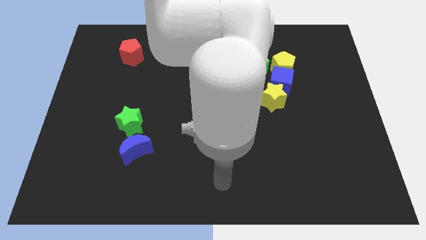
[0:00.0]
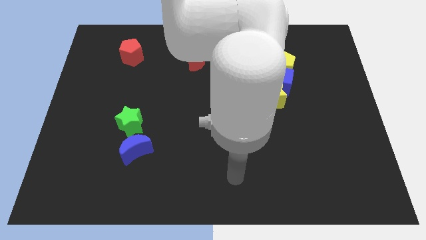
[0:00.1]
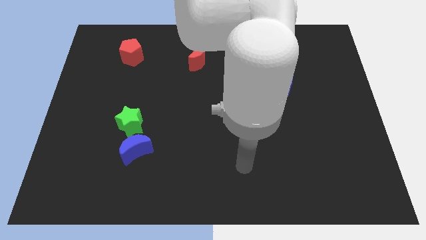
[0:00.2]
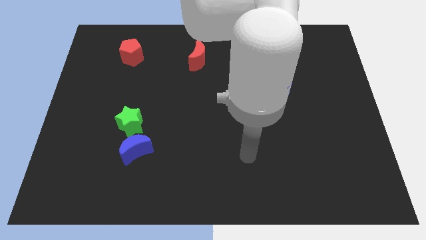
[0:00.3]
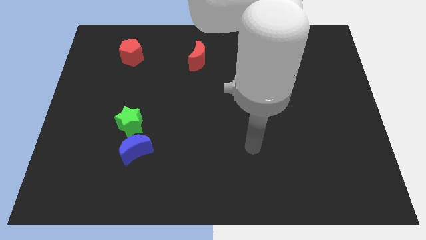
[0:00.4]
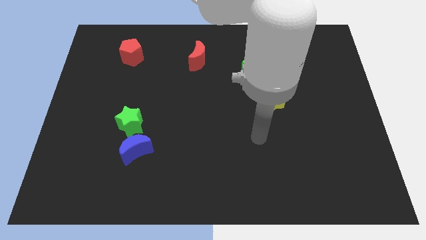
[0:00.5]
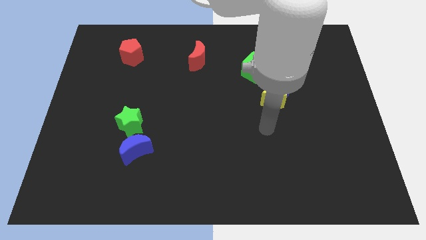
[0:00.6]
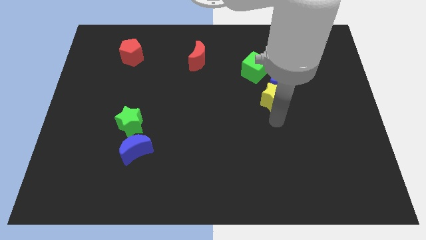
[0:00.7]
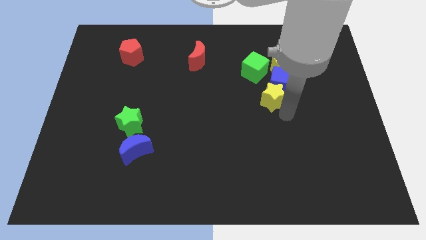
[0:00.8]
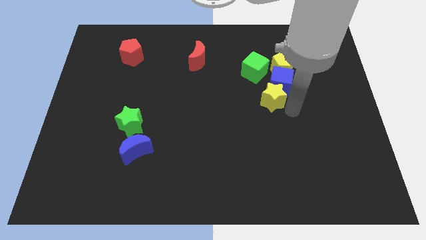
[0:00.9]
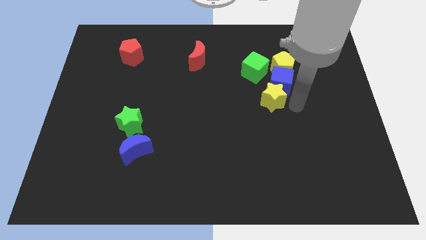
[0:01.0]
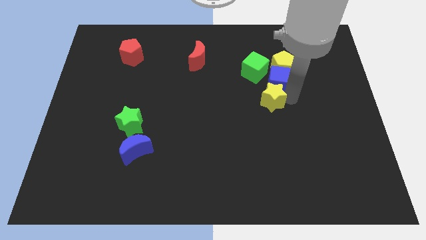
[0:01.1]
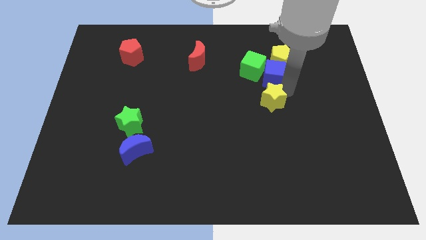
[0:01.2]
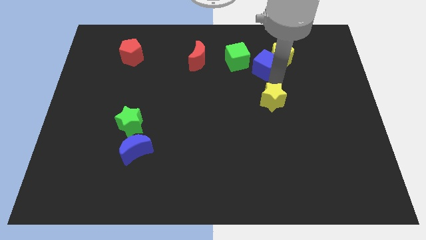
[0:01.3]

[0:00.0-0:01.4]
pull the yellow star apart from the blue cube

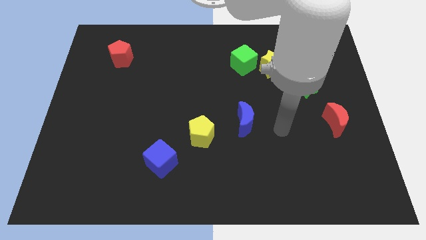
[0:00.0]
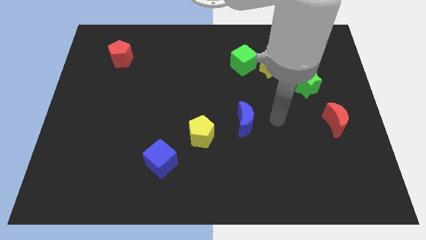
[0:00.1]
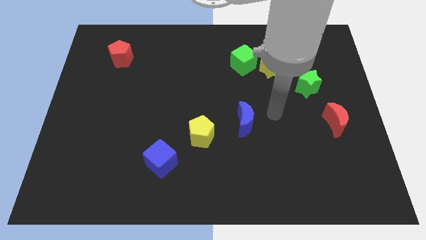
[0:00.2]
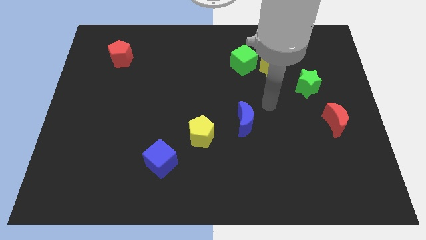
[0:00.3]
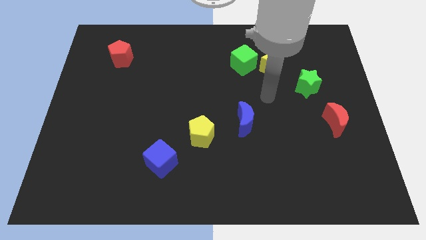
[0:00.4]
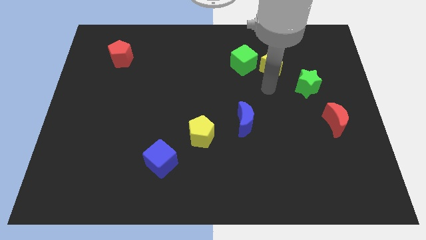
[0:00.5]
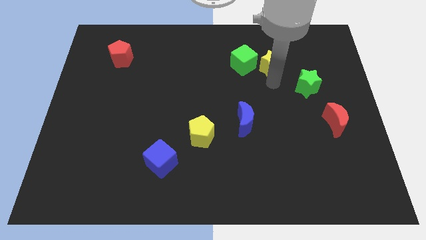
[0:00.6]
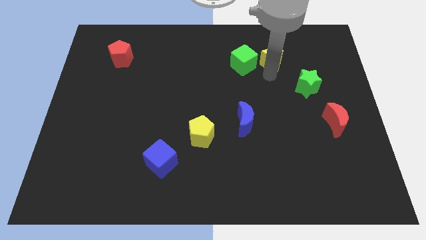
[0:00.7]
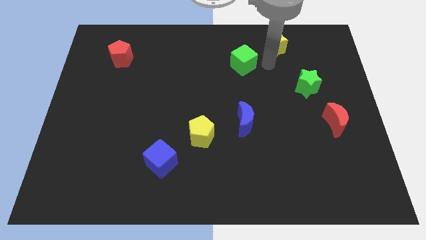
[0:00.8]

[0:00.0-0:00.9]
move the green cube away from the yellow star

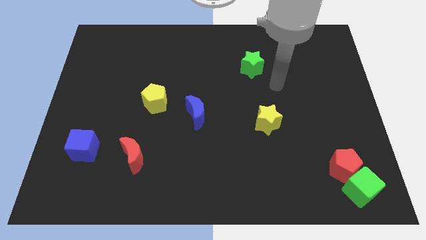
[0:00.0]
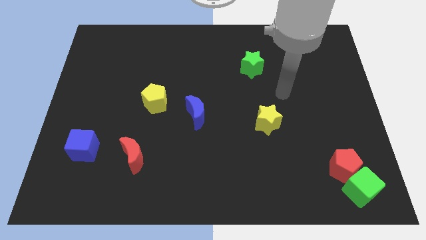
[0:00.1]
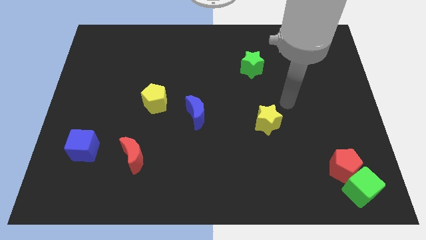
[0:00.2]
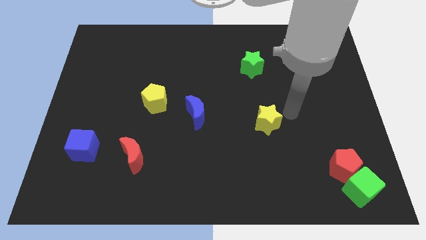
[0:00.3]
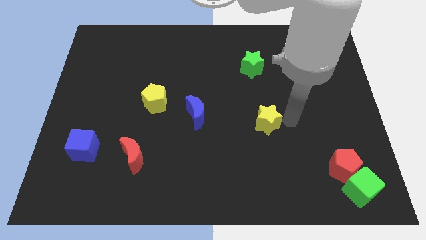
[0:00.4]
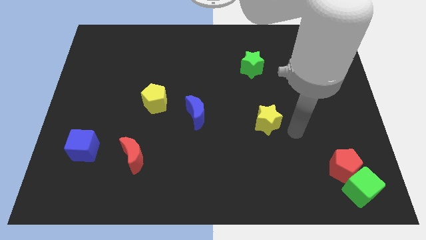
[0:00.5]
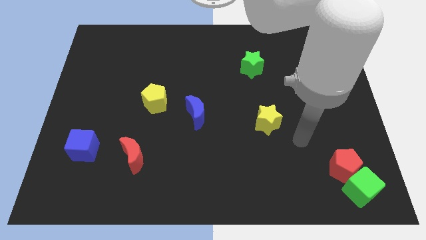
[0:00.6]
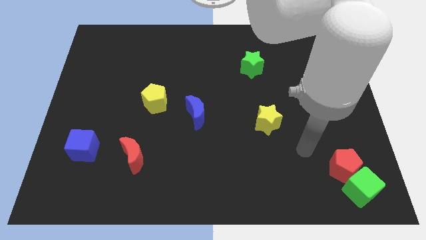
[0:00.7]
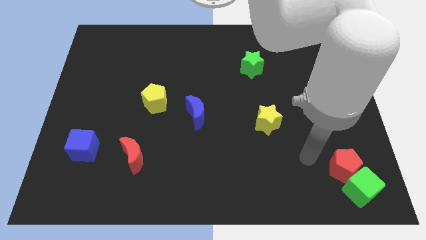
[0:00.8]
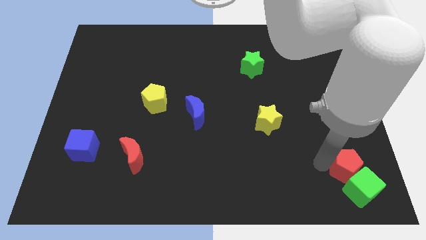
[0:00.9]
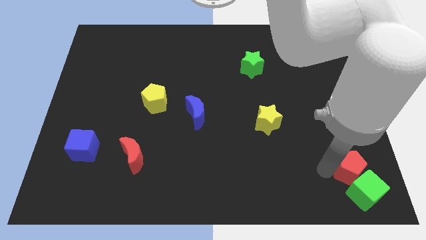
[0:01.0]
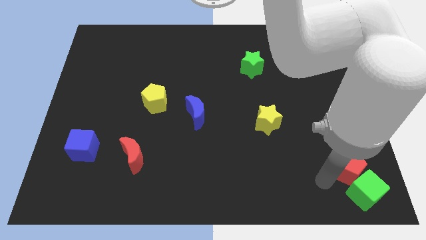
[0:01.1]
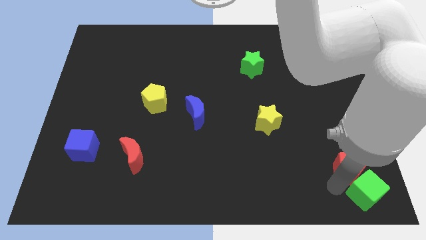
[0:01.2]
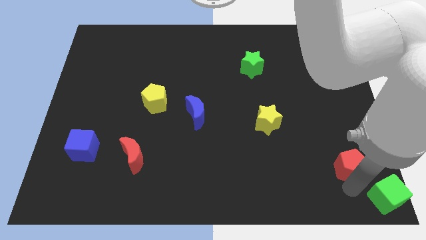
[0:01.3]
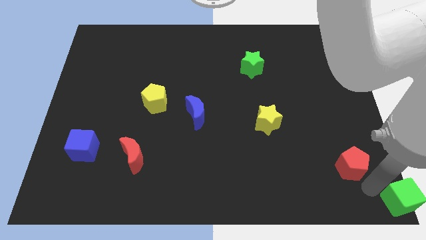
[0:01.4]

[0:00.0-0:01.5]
move the red pentagon away from the green cube

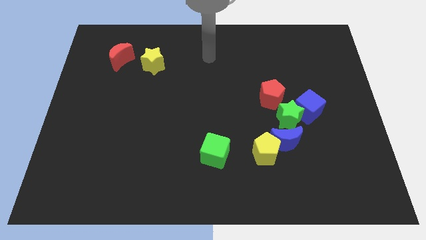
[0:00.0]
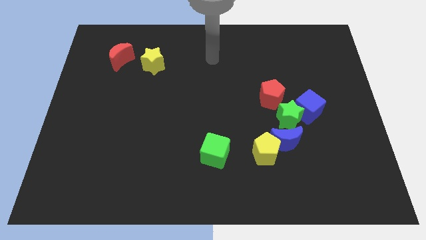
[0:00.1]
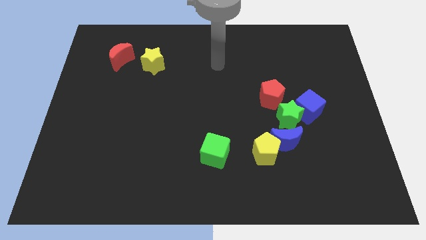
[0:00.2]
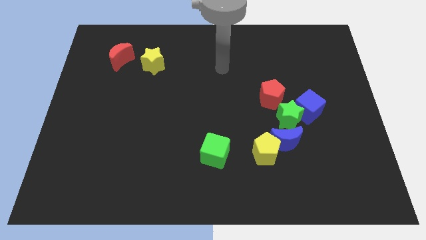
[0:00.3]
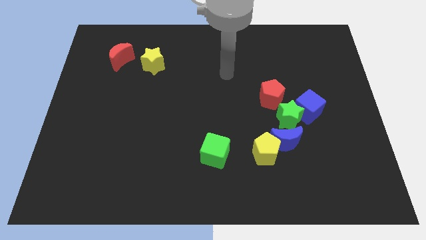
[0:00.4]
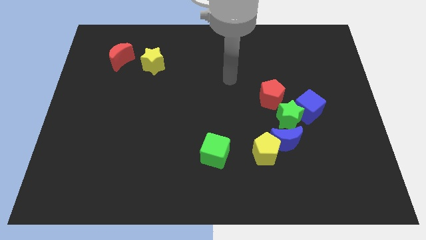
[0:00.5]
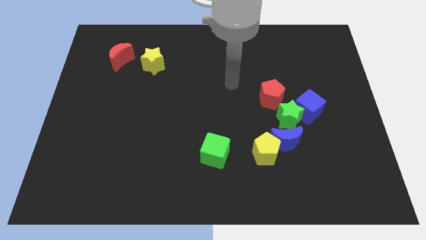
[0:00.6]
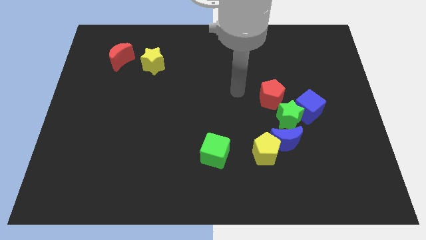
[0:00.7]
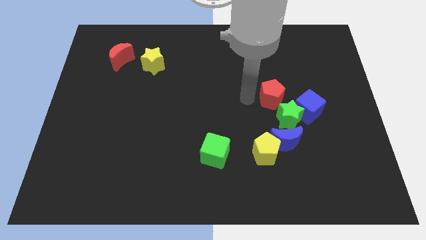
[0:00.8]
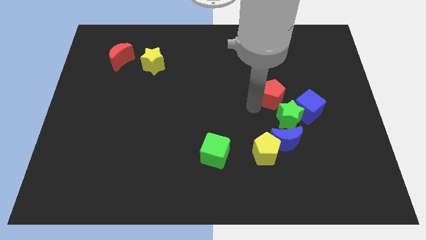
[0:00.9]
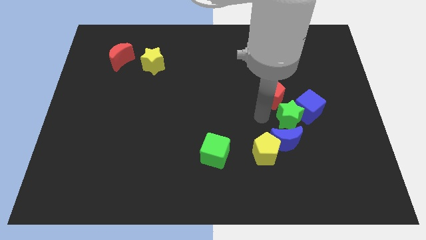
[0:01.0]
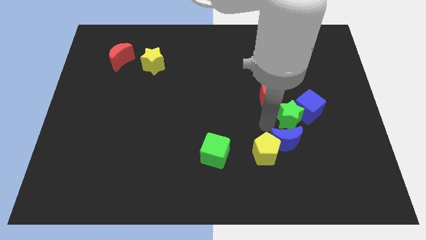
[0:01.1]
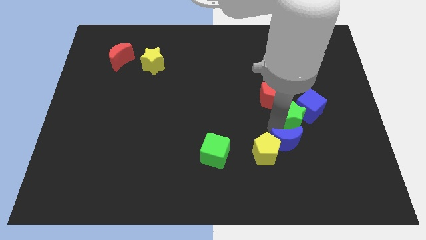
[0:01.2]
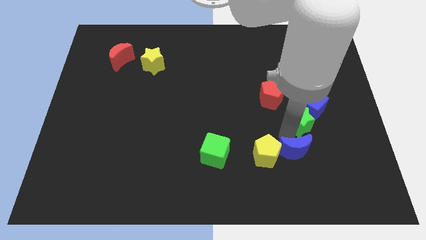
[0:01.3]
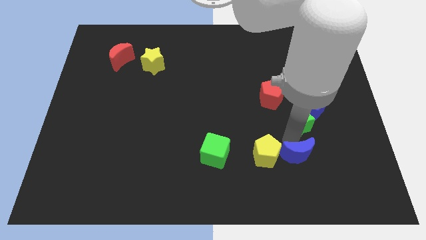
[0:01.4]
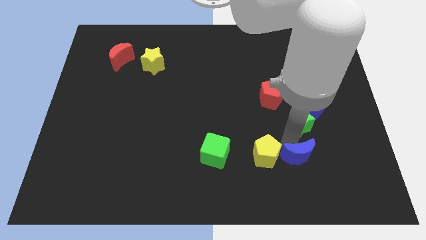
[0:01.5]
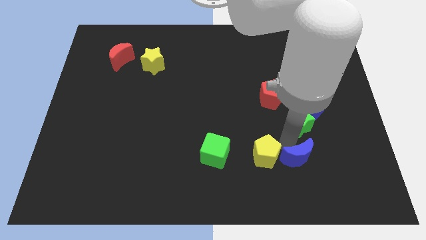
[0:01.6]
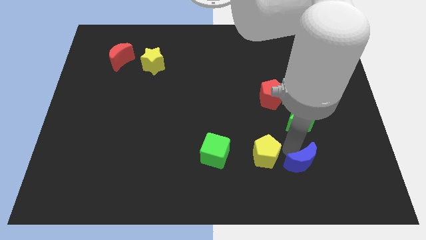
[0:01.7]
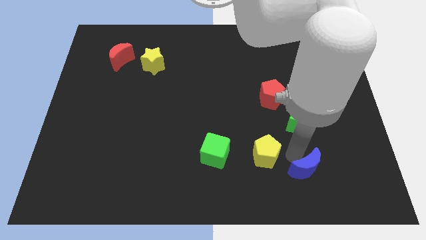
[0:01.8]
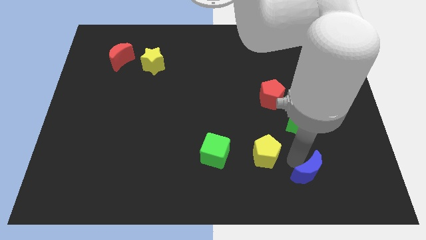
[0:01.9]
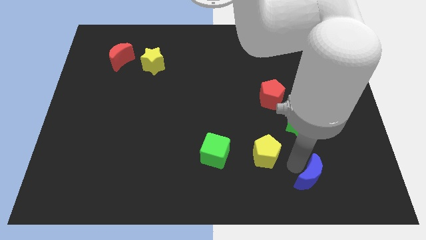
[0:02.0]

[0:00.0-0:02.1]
move the yellow pentagon away from the blue moon

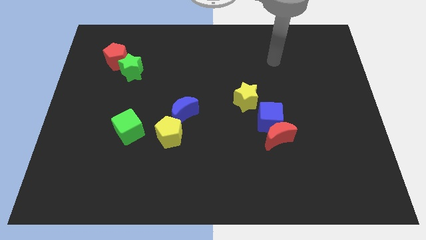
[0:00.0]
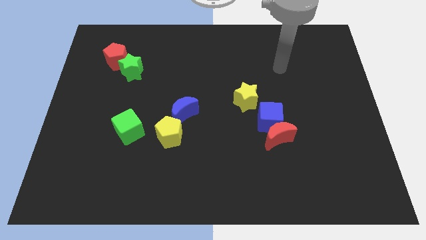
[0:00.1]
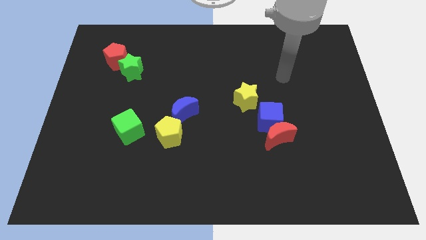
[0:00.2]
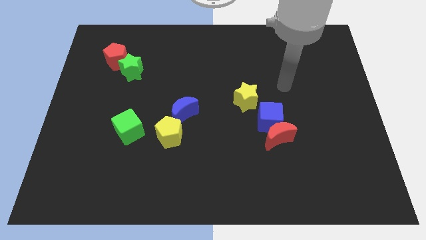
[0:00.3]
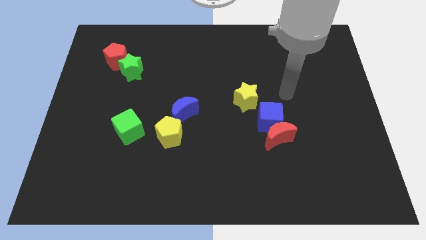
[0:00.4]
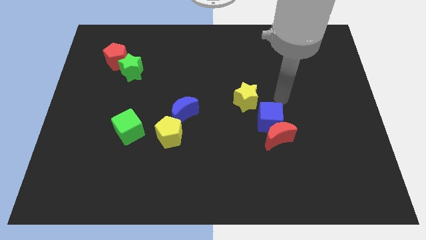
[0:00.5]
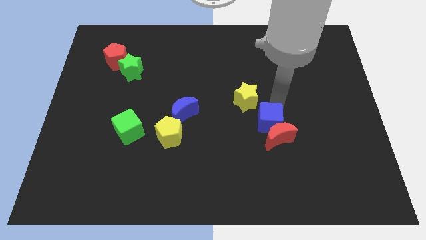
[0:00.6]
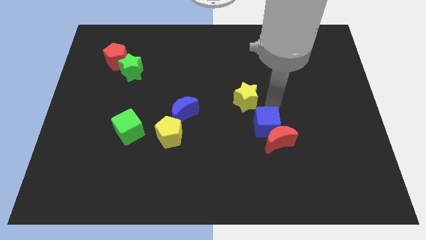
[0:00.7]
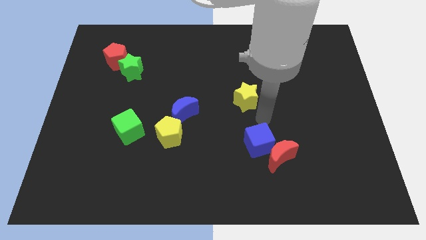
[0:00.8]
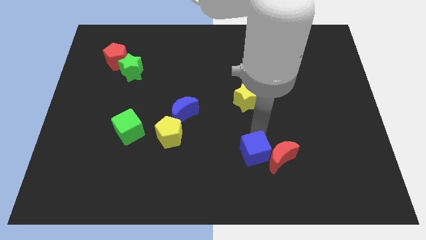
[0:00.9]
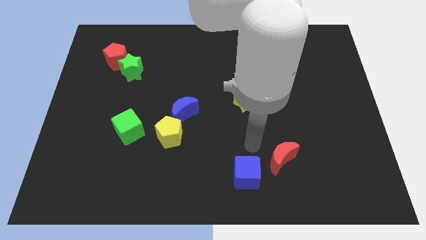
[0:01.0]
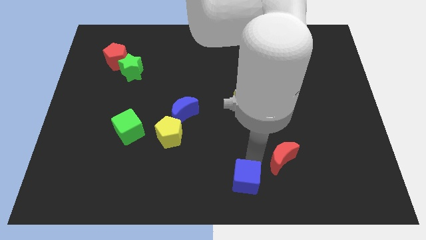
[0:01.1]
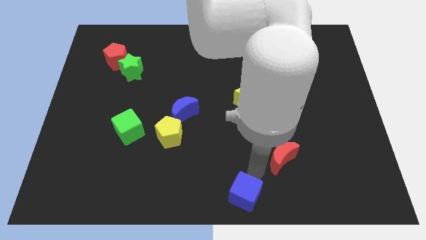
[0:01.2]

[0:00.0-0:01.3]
separate the red moon from the blue cube

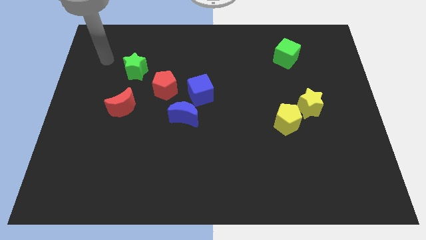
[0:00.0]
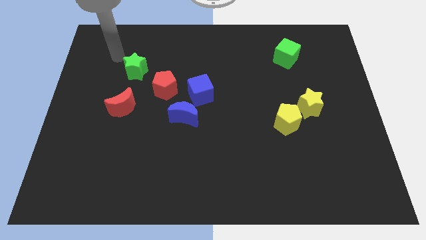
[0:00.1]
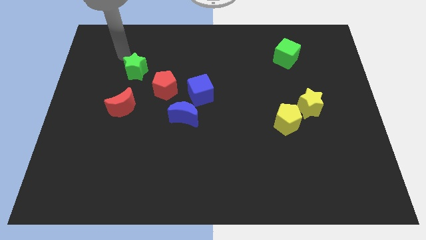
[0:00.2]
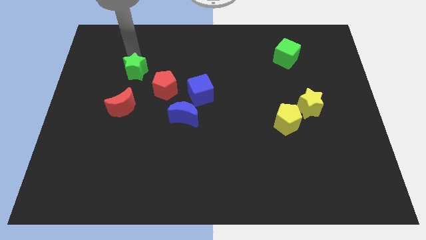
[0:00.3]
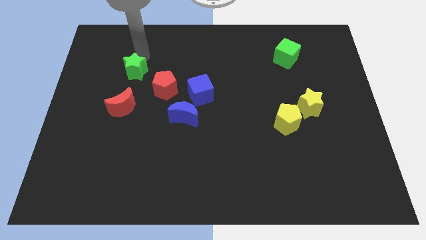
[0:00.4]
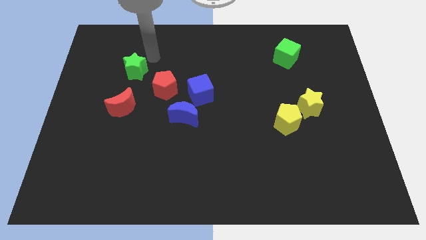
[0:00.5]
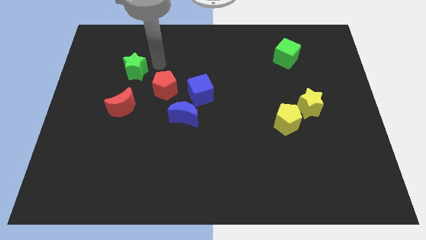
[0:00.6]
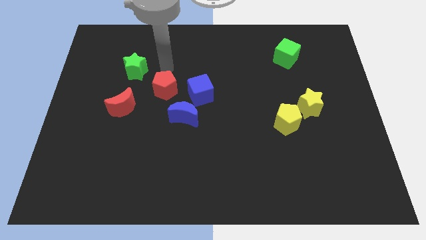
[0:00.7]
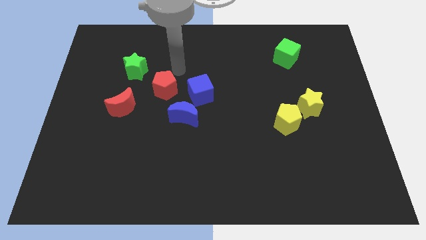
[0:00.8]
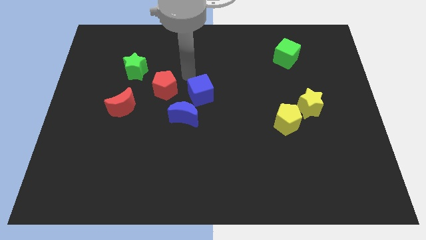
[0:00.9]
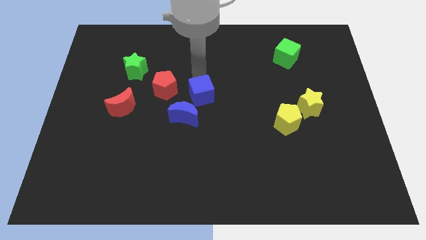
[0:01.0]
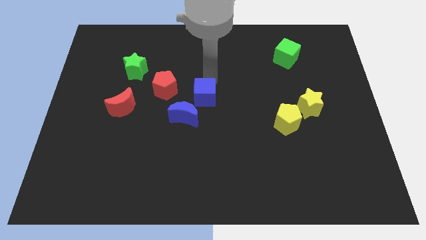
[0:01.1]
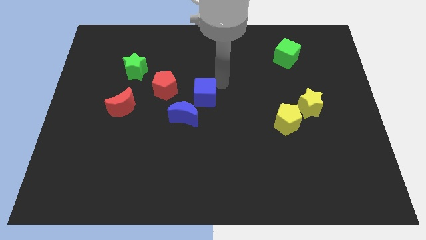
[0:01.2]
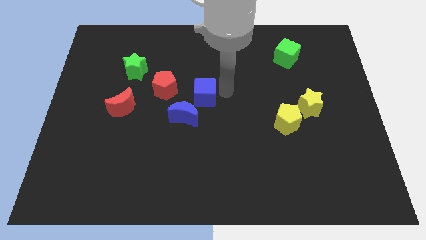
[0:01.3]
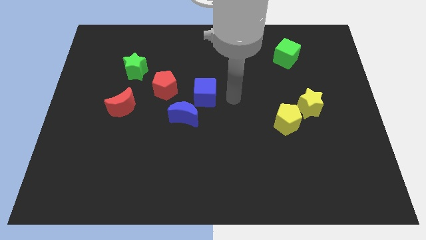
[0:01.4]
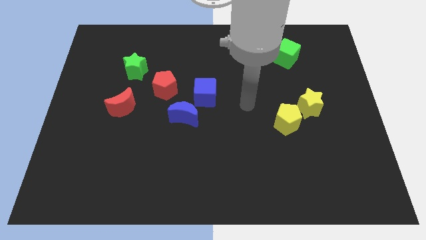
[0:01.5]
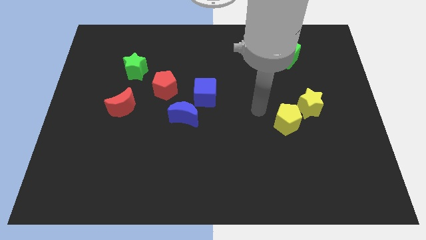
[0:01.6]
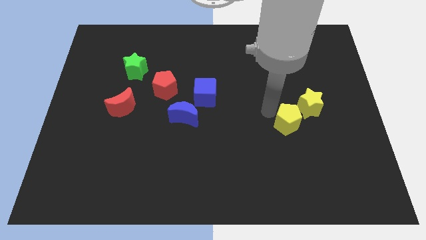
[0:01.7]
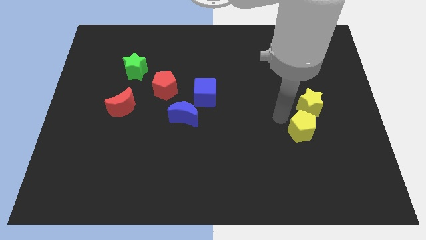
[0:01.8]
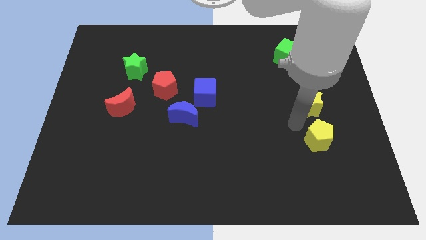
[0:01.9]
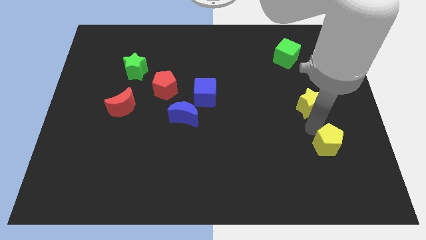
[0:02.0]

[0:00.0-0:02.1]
move the yellow star away from the yellow pentagon
